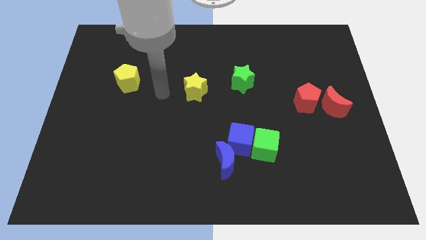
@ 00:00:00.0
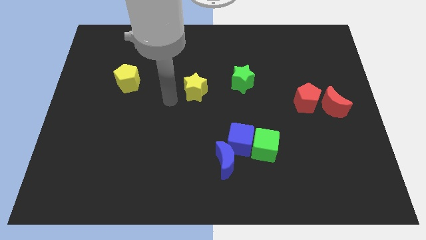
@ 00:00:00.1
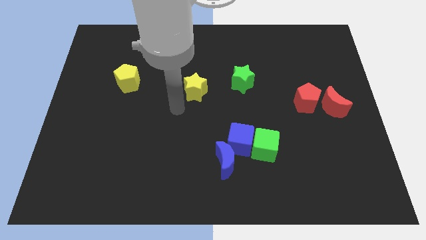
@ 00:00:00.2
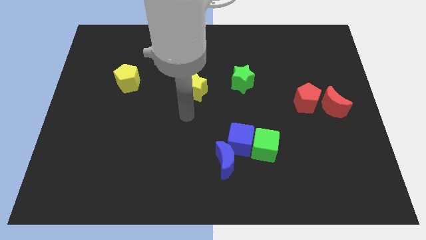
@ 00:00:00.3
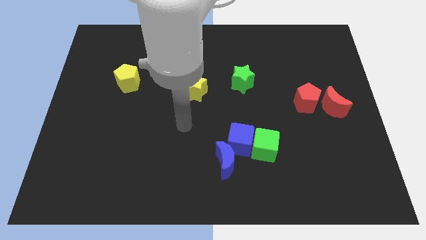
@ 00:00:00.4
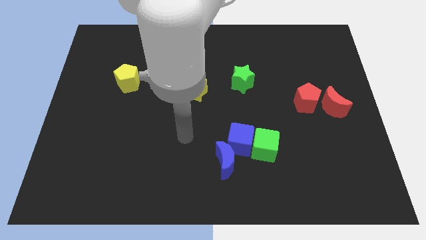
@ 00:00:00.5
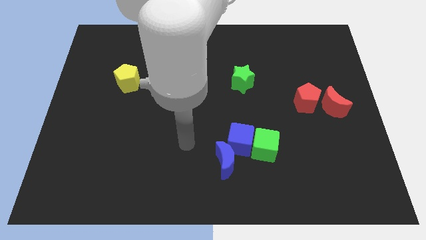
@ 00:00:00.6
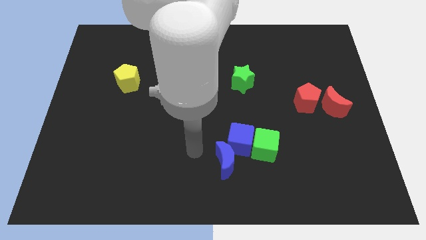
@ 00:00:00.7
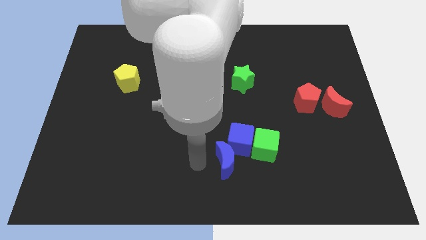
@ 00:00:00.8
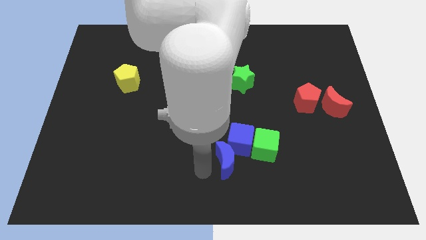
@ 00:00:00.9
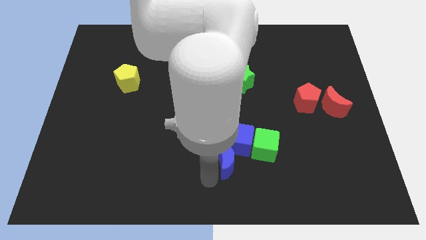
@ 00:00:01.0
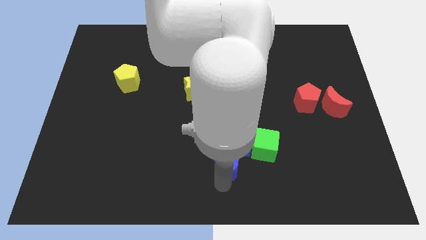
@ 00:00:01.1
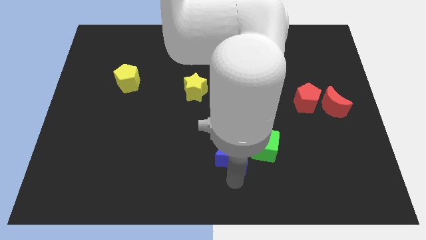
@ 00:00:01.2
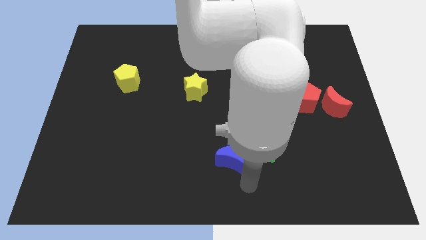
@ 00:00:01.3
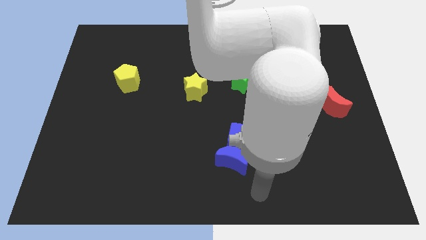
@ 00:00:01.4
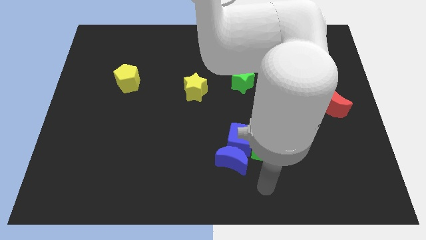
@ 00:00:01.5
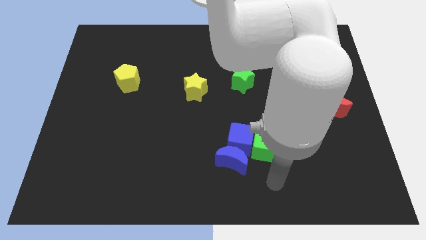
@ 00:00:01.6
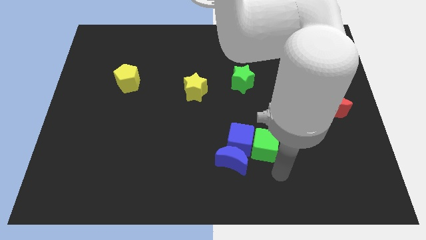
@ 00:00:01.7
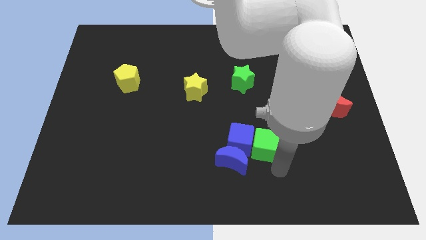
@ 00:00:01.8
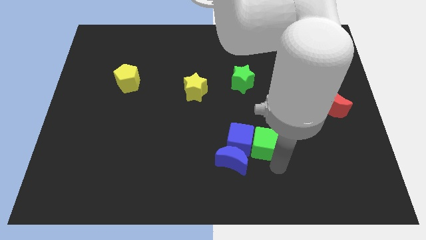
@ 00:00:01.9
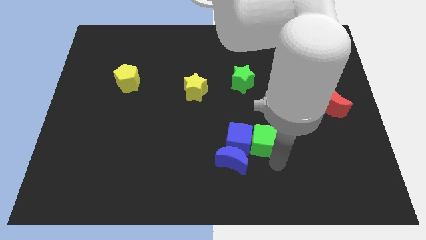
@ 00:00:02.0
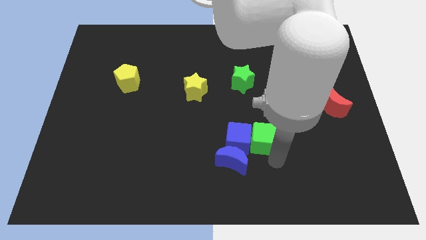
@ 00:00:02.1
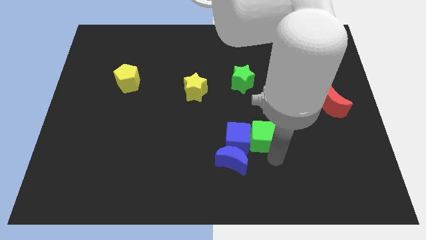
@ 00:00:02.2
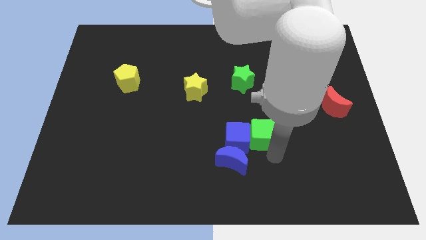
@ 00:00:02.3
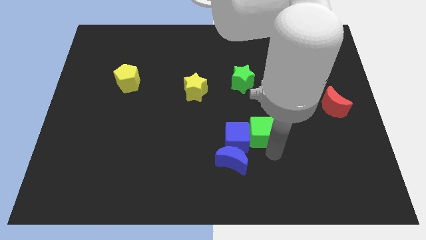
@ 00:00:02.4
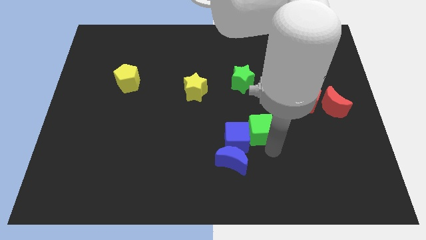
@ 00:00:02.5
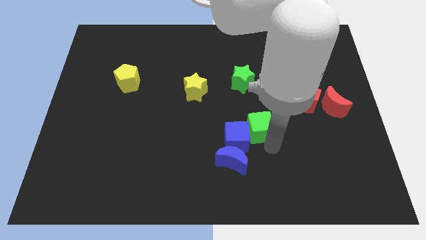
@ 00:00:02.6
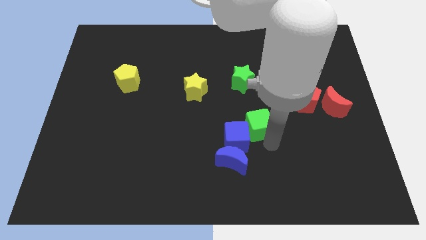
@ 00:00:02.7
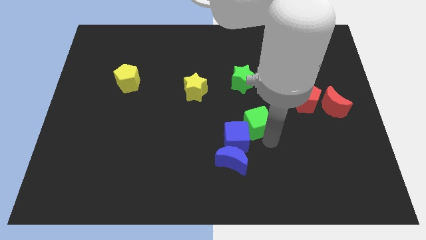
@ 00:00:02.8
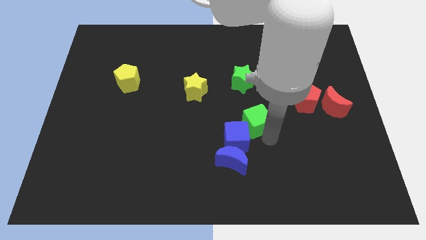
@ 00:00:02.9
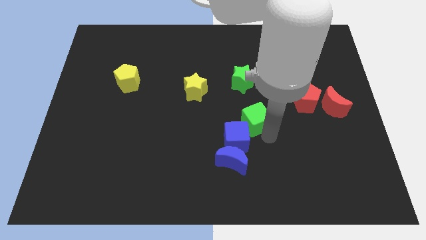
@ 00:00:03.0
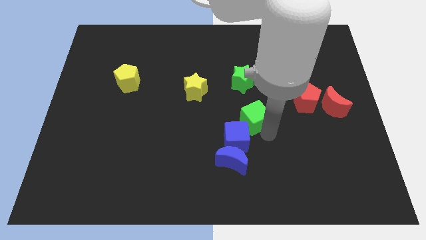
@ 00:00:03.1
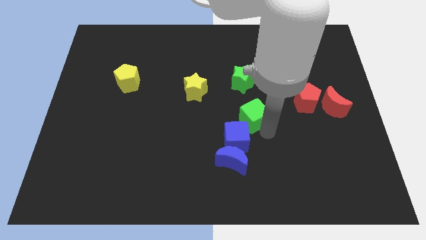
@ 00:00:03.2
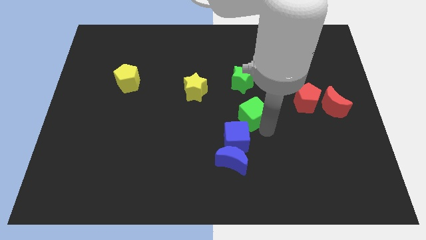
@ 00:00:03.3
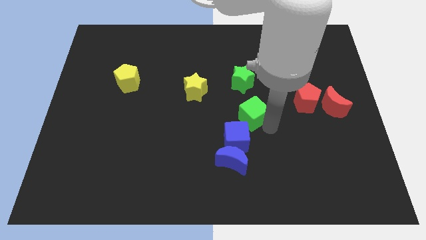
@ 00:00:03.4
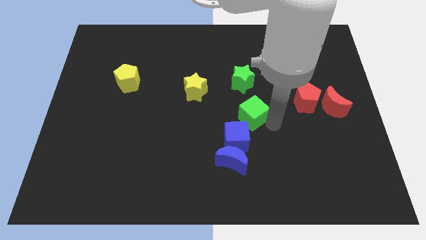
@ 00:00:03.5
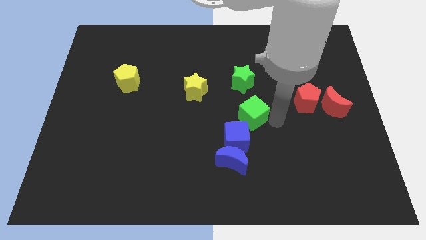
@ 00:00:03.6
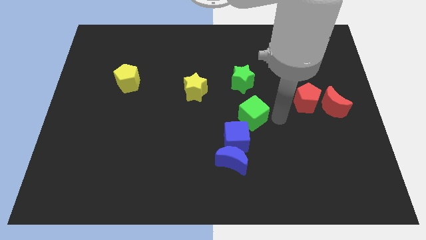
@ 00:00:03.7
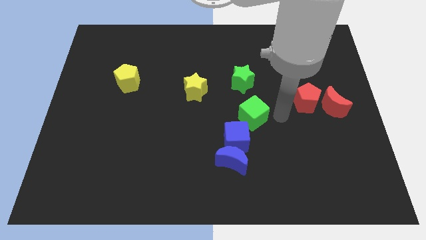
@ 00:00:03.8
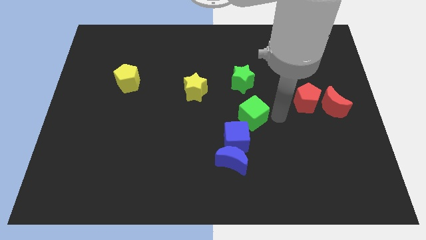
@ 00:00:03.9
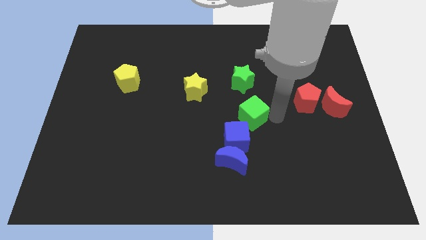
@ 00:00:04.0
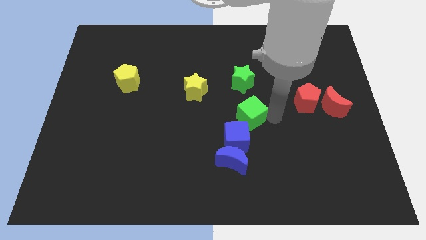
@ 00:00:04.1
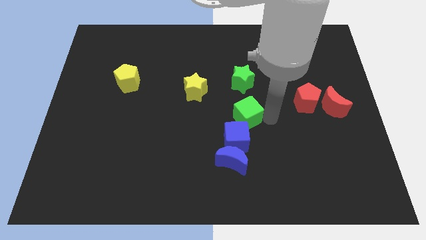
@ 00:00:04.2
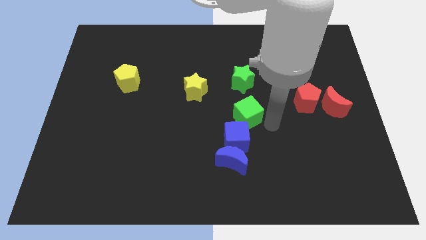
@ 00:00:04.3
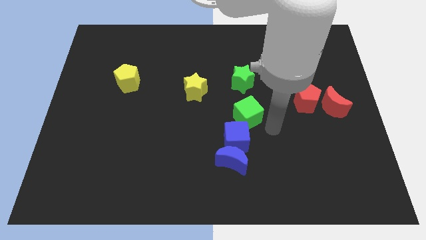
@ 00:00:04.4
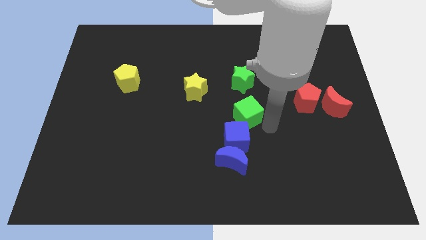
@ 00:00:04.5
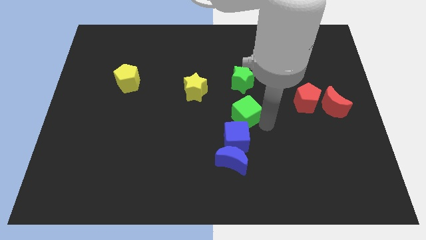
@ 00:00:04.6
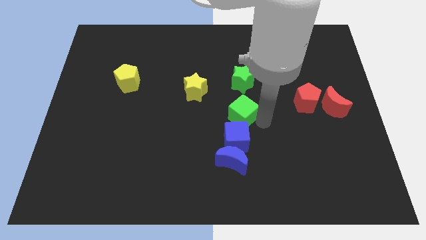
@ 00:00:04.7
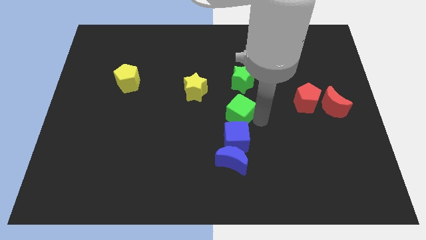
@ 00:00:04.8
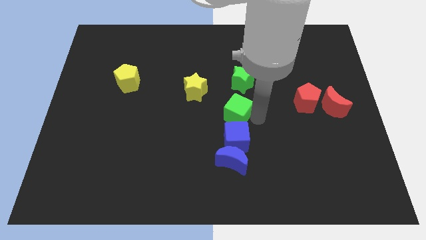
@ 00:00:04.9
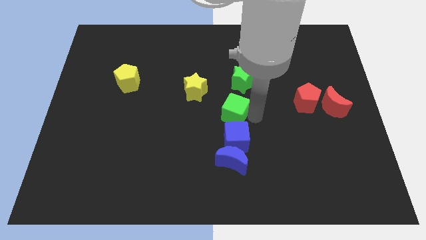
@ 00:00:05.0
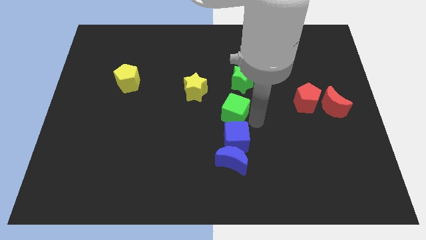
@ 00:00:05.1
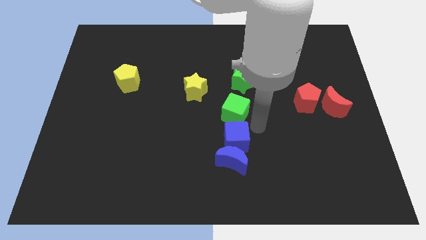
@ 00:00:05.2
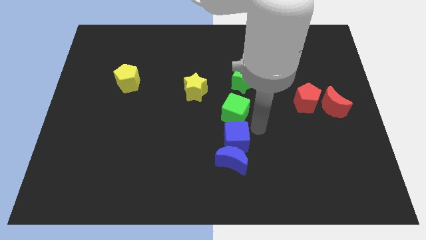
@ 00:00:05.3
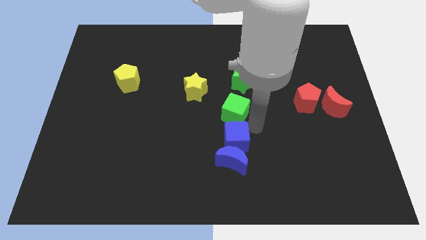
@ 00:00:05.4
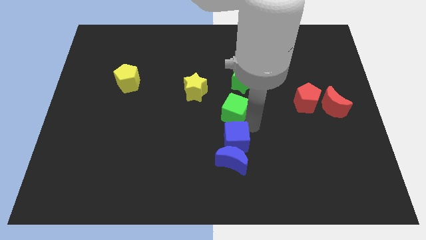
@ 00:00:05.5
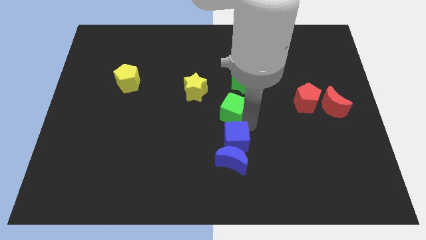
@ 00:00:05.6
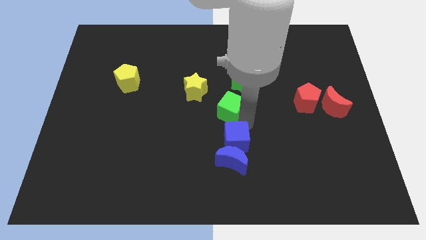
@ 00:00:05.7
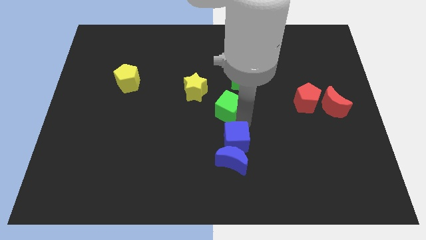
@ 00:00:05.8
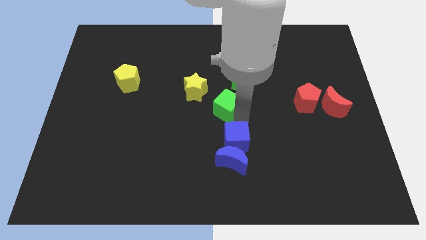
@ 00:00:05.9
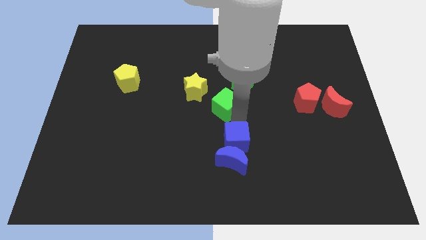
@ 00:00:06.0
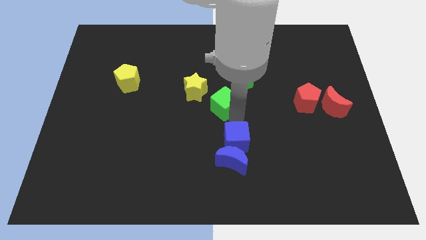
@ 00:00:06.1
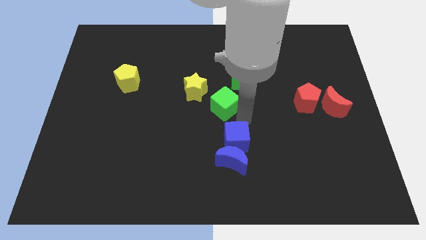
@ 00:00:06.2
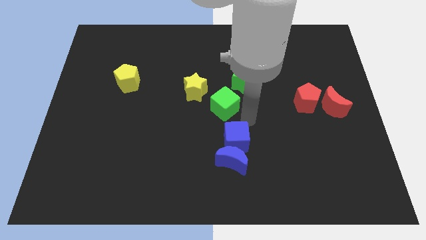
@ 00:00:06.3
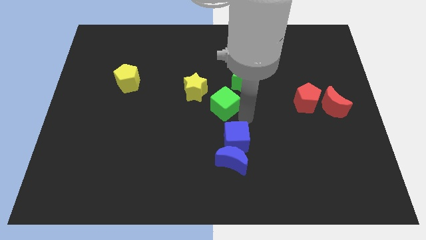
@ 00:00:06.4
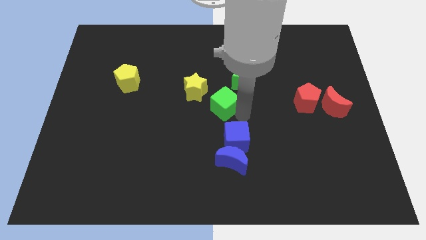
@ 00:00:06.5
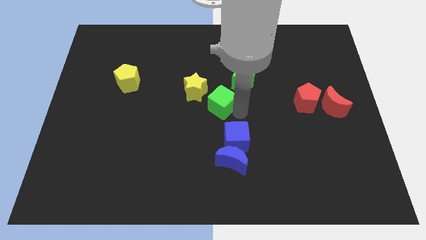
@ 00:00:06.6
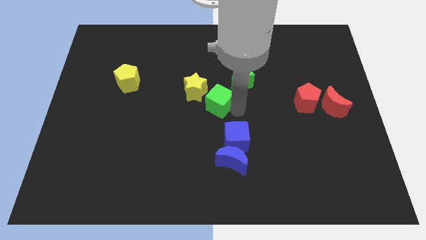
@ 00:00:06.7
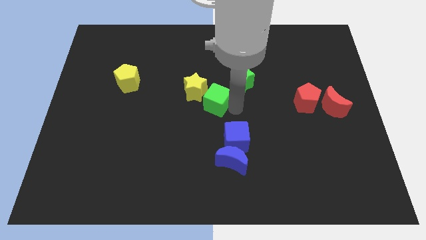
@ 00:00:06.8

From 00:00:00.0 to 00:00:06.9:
push the green cube towards the yellow star

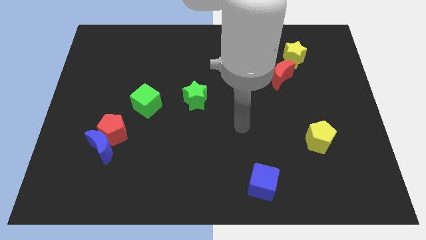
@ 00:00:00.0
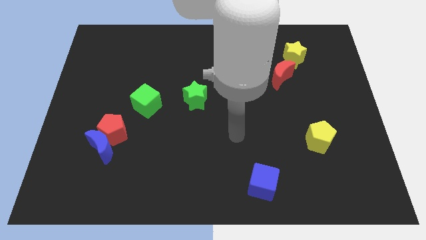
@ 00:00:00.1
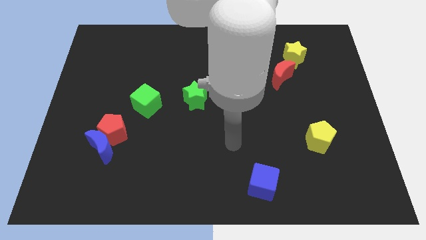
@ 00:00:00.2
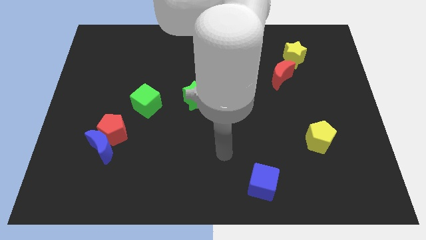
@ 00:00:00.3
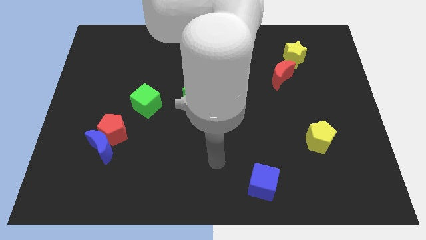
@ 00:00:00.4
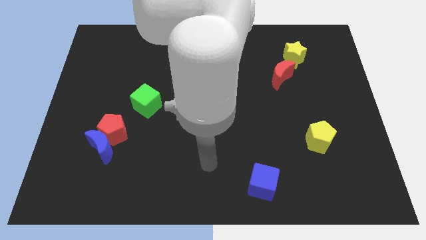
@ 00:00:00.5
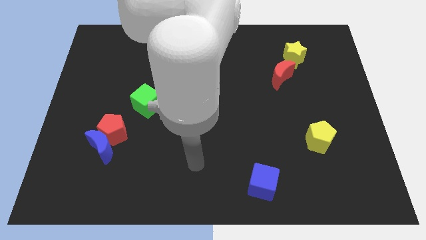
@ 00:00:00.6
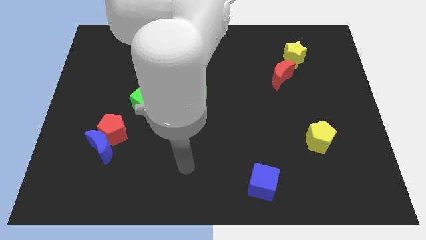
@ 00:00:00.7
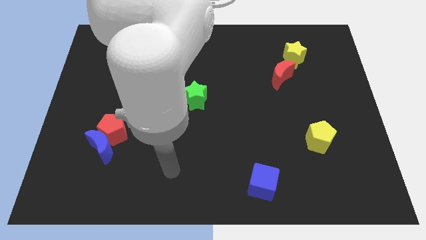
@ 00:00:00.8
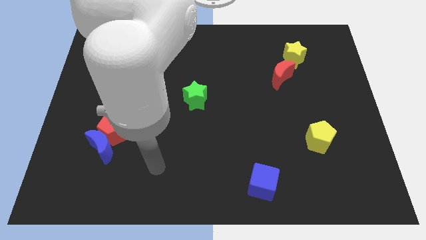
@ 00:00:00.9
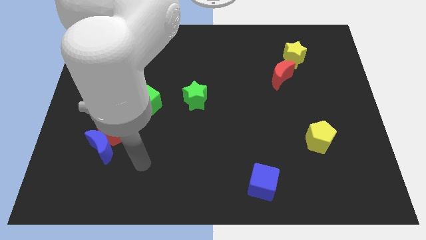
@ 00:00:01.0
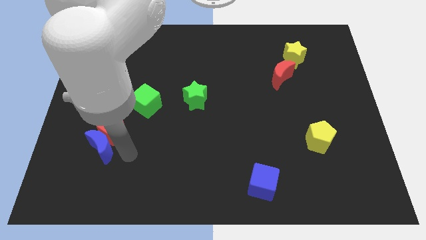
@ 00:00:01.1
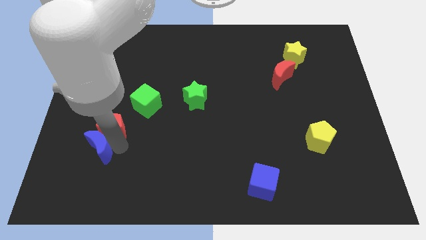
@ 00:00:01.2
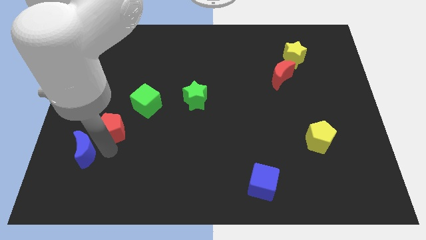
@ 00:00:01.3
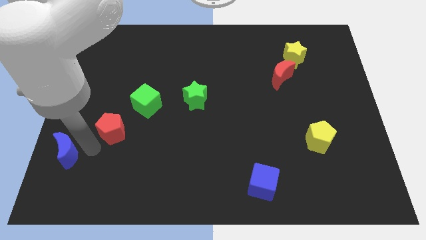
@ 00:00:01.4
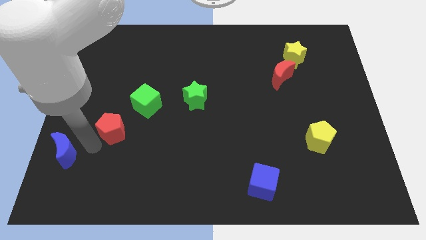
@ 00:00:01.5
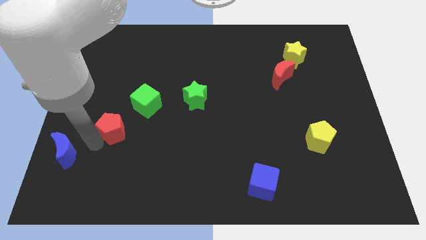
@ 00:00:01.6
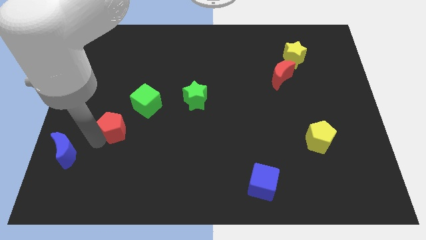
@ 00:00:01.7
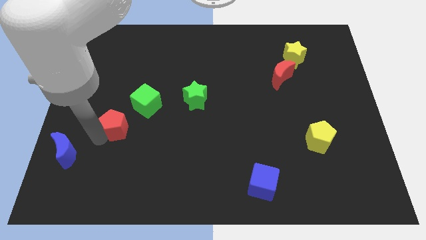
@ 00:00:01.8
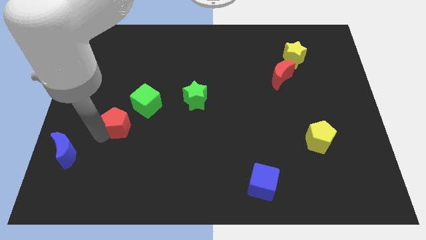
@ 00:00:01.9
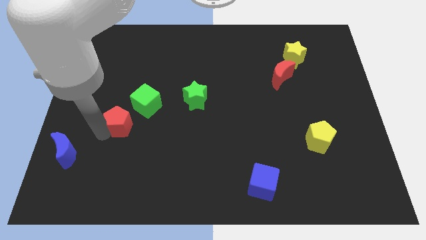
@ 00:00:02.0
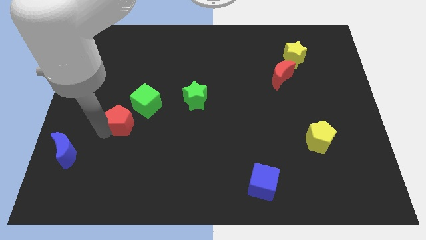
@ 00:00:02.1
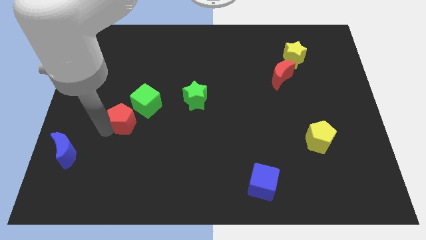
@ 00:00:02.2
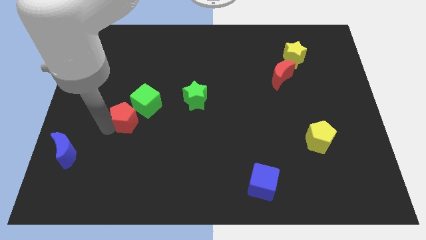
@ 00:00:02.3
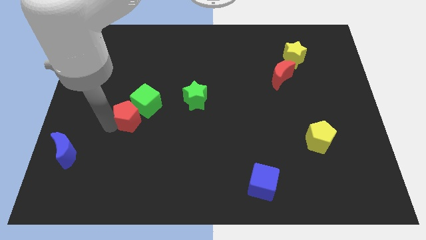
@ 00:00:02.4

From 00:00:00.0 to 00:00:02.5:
push the red pentagon towards the green cube
